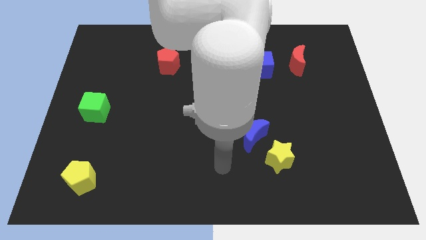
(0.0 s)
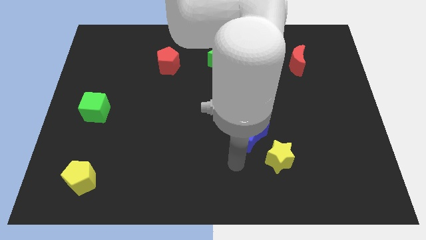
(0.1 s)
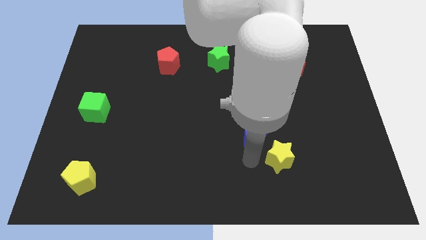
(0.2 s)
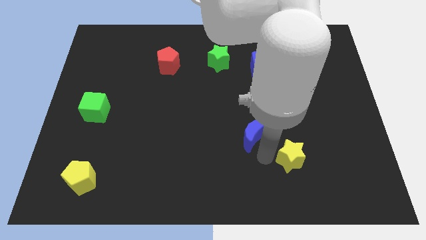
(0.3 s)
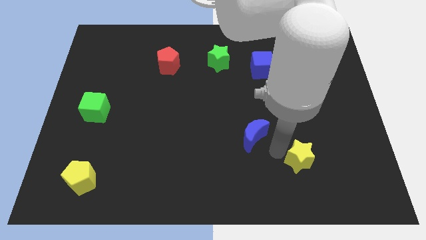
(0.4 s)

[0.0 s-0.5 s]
pull the blue moon apart from the yellow star

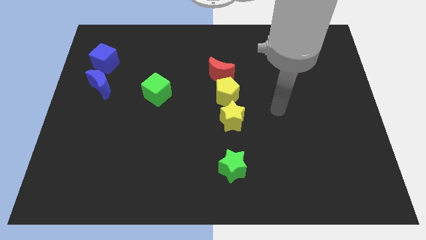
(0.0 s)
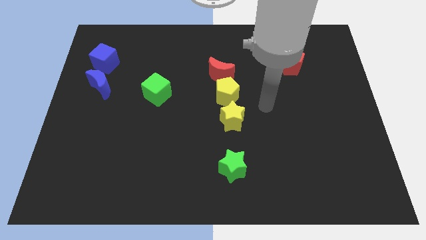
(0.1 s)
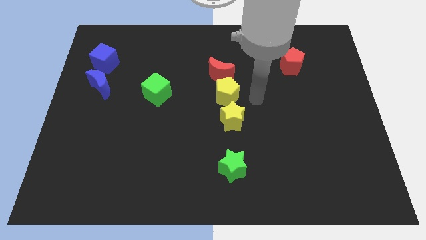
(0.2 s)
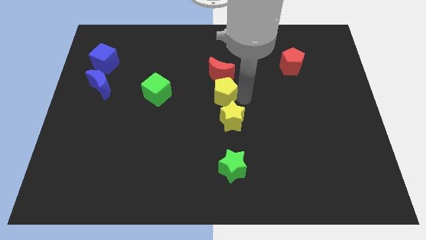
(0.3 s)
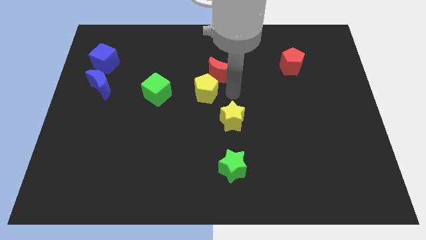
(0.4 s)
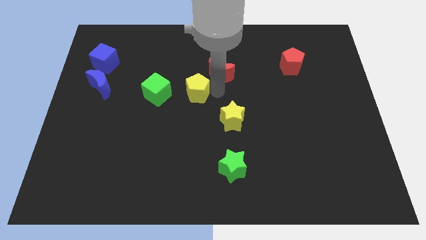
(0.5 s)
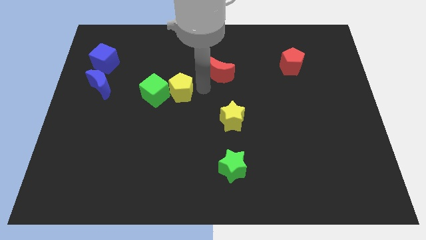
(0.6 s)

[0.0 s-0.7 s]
move the red moon away from the yellow pentagon

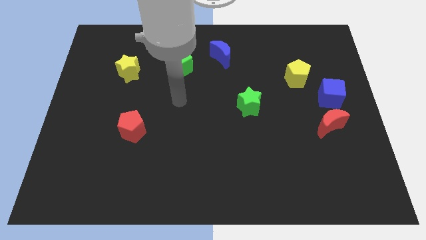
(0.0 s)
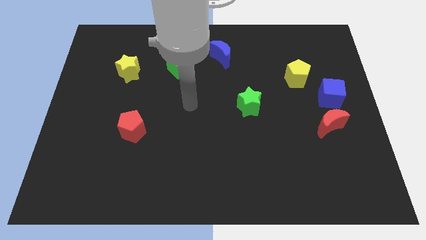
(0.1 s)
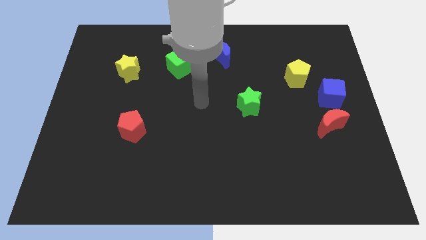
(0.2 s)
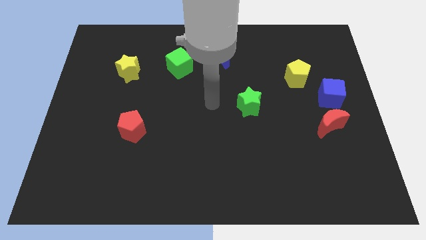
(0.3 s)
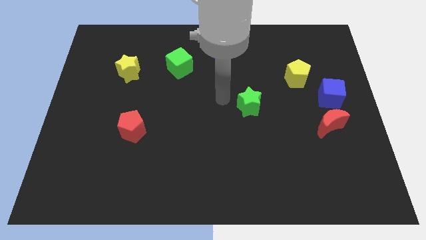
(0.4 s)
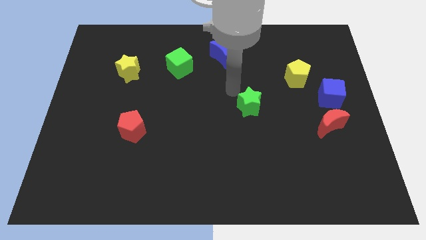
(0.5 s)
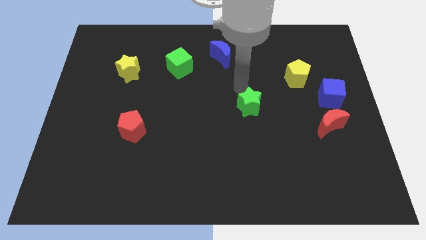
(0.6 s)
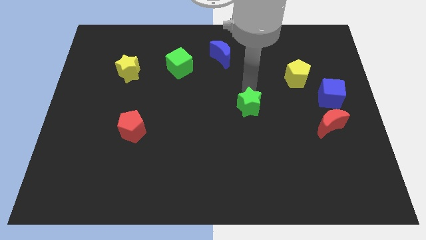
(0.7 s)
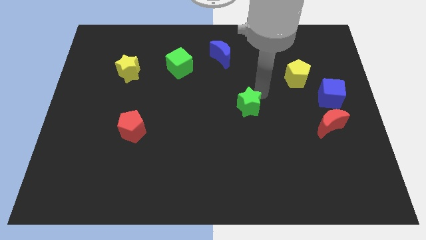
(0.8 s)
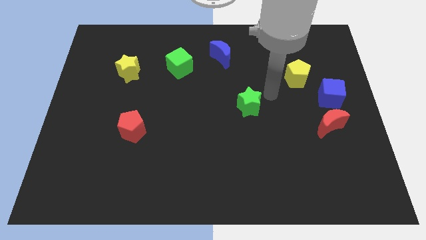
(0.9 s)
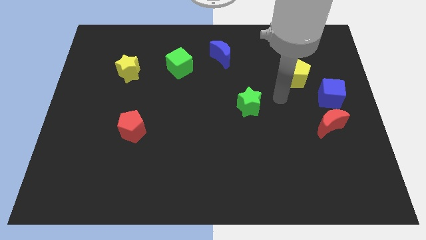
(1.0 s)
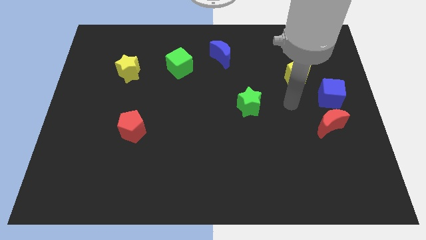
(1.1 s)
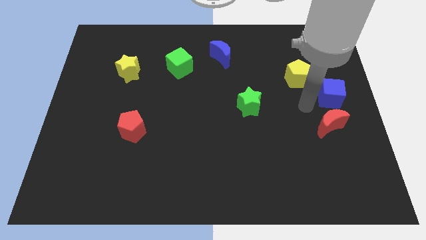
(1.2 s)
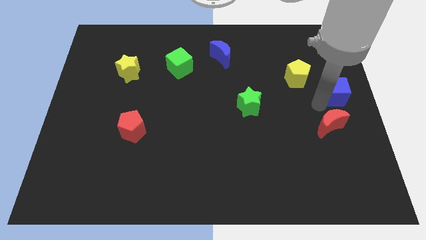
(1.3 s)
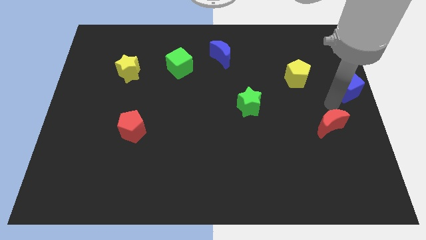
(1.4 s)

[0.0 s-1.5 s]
move the red moon away from the blue cube

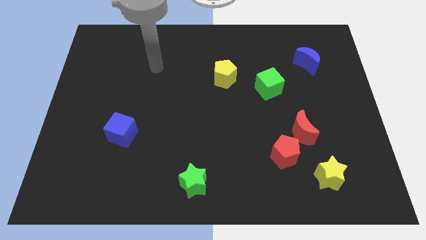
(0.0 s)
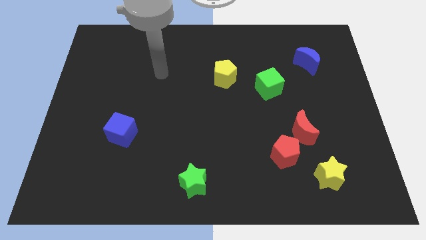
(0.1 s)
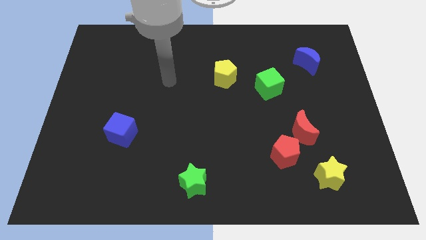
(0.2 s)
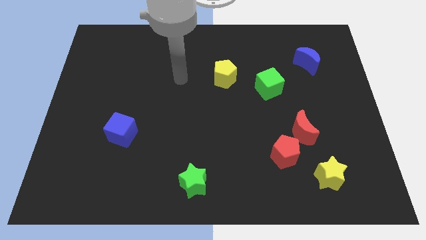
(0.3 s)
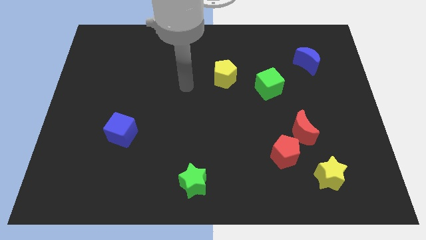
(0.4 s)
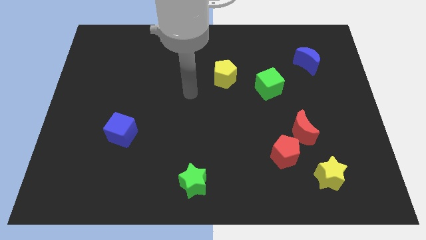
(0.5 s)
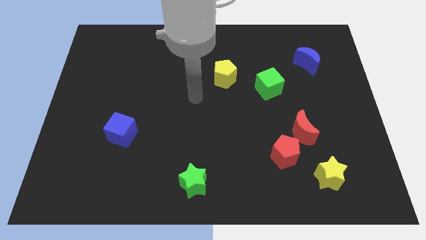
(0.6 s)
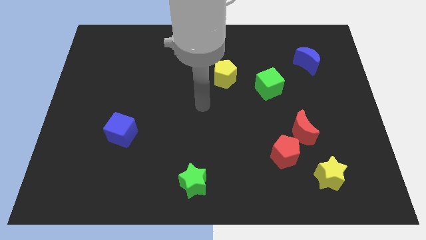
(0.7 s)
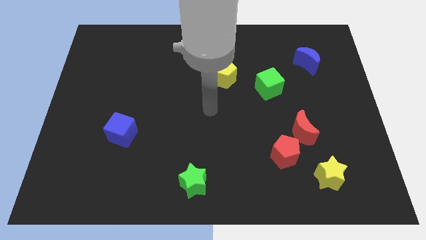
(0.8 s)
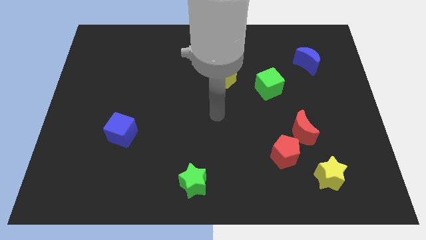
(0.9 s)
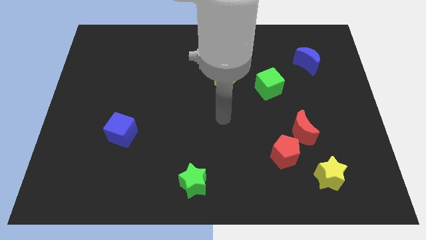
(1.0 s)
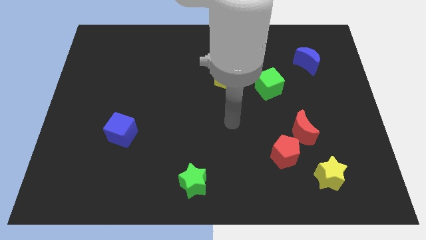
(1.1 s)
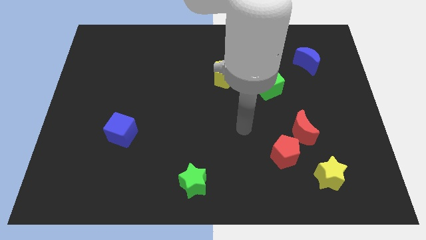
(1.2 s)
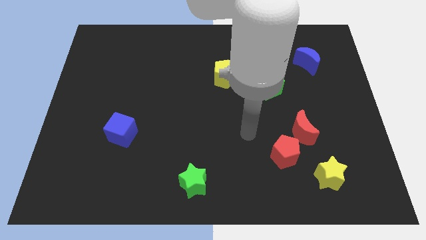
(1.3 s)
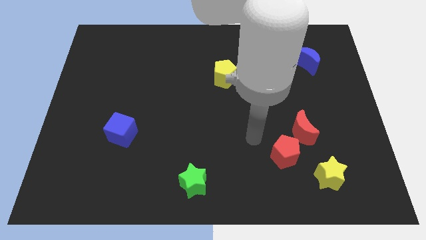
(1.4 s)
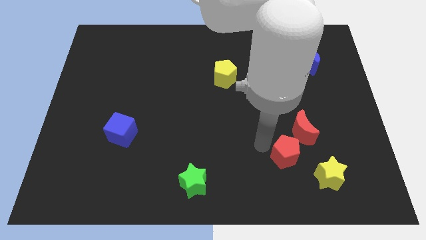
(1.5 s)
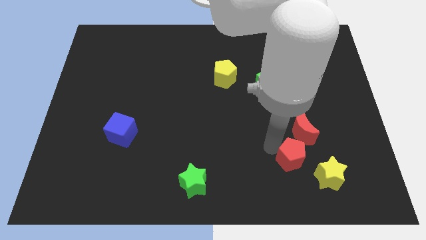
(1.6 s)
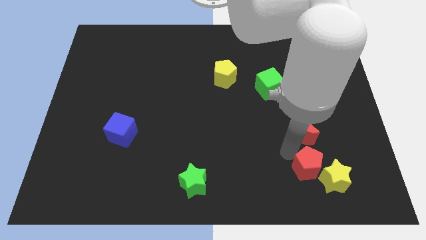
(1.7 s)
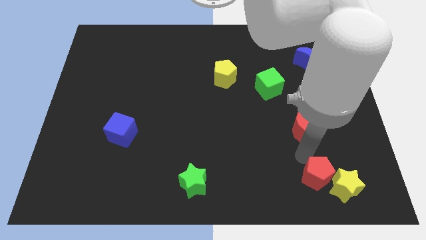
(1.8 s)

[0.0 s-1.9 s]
separate the red moon from the red pentagon

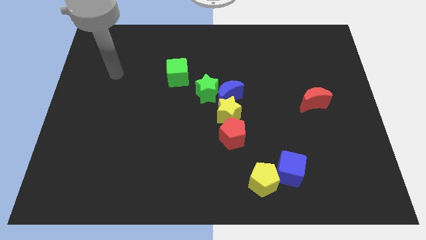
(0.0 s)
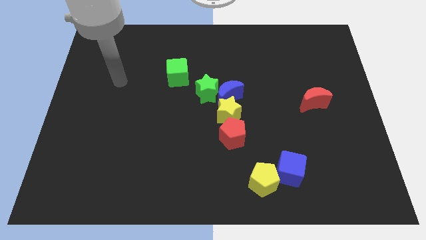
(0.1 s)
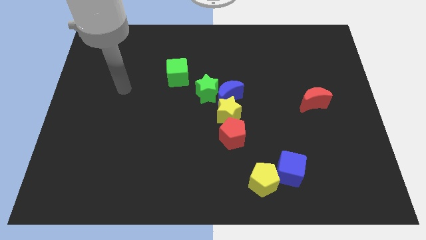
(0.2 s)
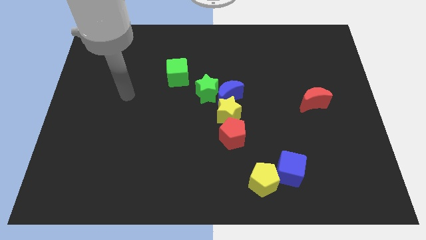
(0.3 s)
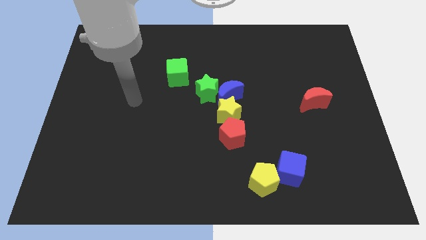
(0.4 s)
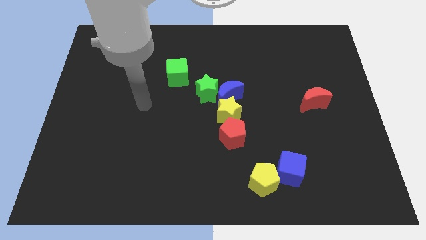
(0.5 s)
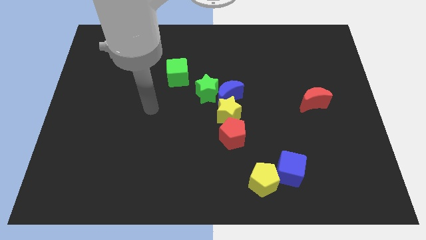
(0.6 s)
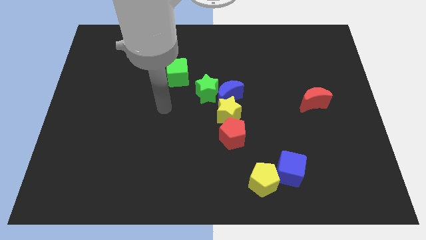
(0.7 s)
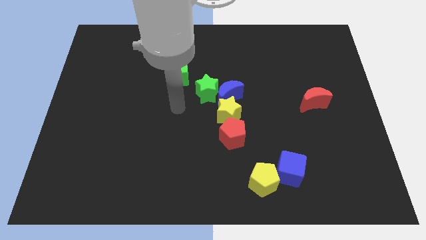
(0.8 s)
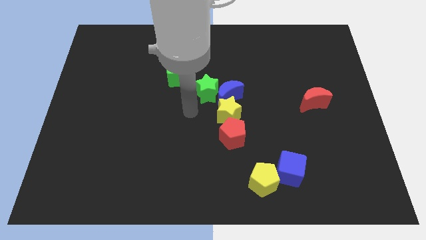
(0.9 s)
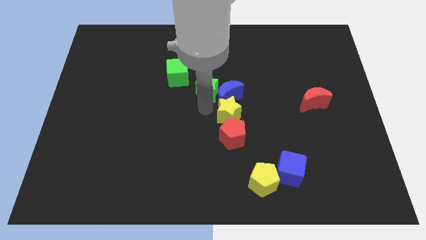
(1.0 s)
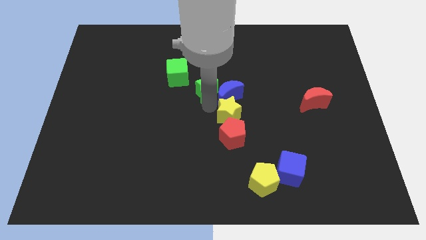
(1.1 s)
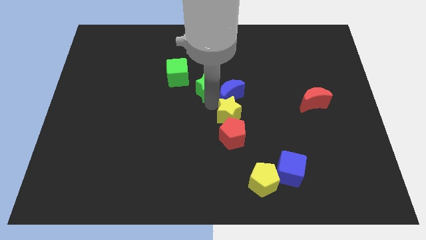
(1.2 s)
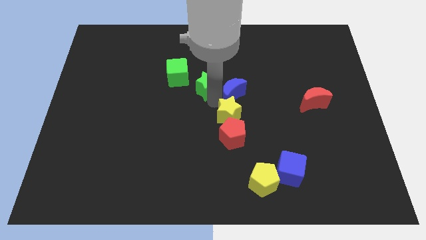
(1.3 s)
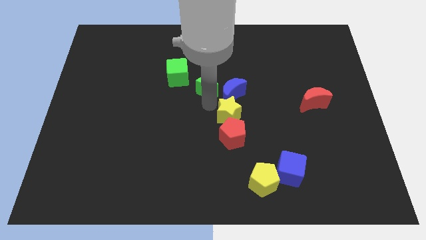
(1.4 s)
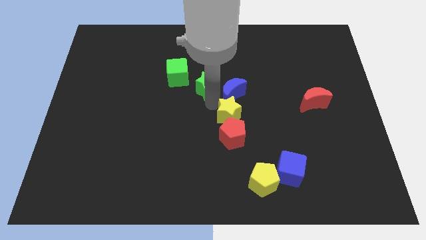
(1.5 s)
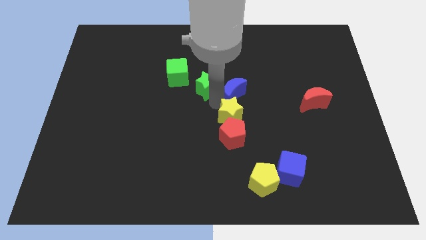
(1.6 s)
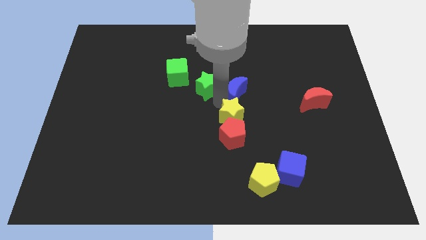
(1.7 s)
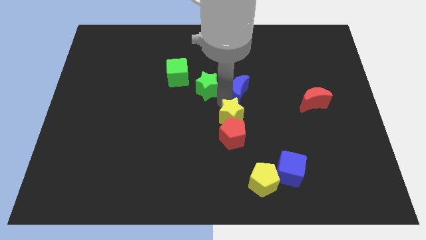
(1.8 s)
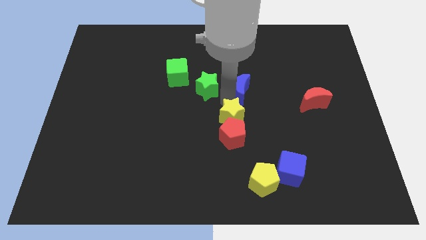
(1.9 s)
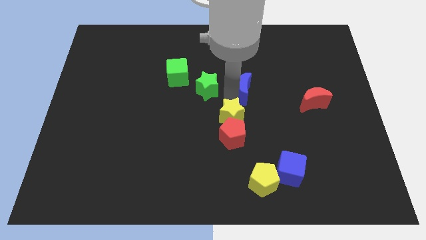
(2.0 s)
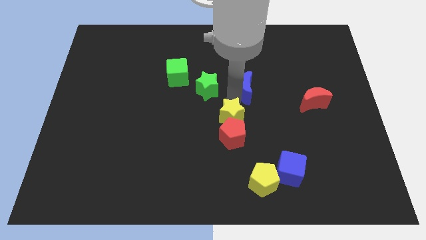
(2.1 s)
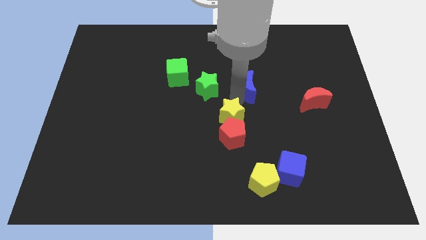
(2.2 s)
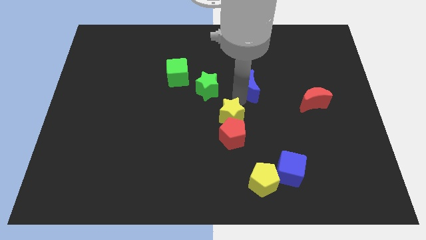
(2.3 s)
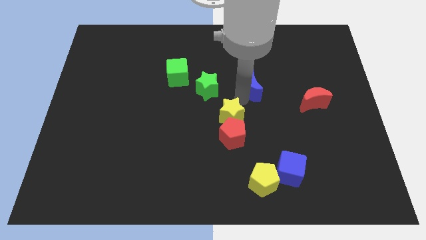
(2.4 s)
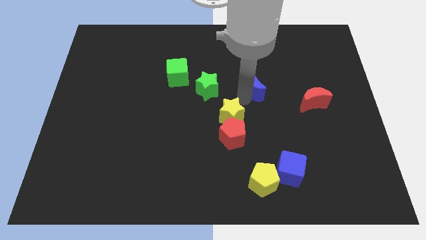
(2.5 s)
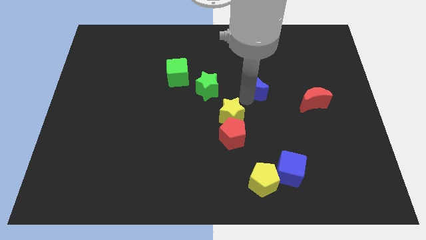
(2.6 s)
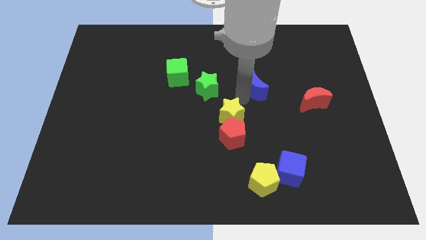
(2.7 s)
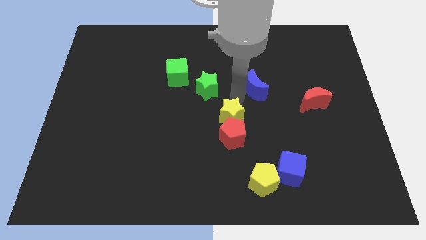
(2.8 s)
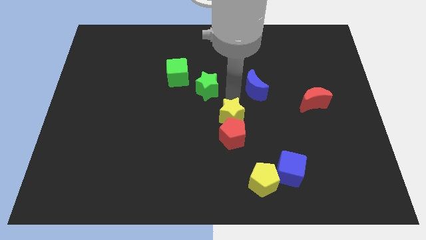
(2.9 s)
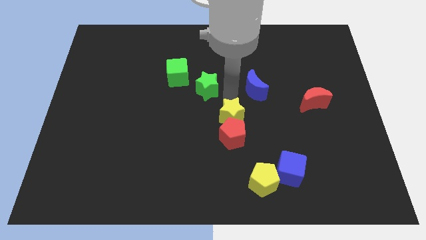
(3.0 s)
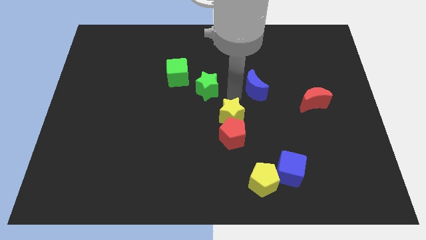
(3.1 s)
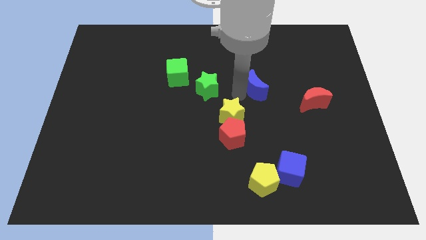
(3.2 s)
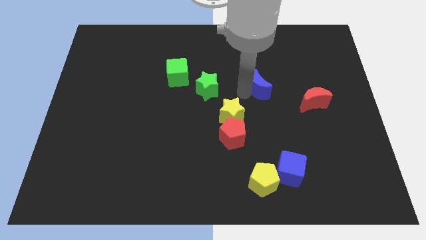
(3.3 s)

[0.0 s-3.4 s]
move the blue moon away from the yellow star and green star

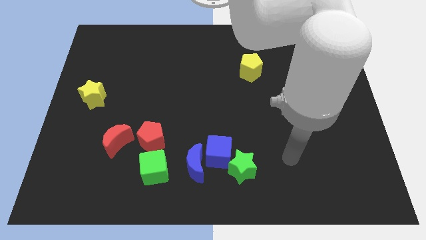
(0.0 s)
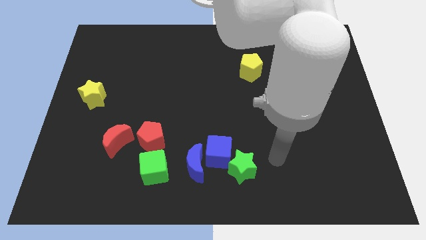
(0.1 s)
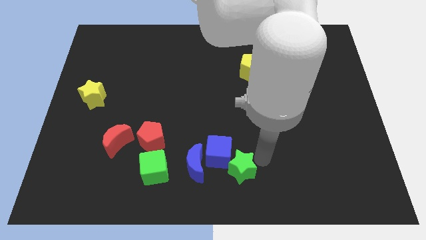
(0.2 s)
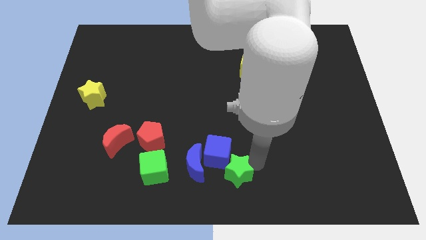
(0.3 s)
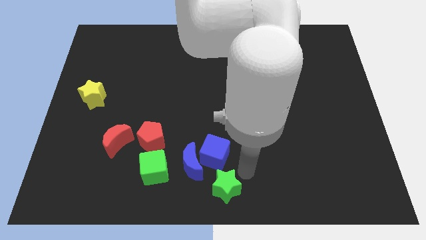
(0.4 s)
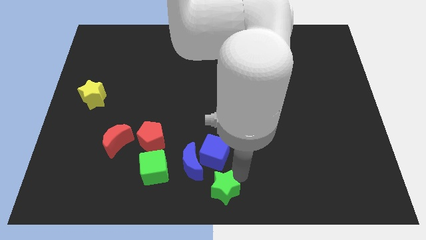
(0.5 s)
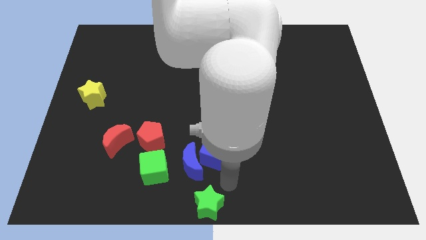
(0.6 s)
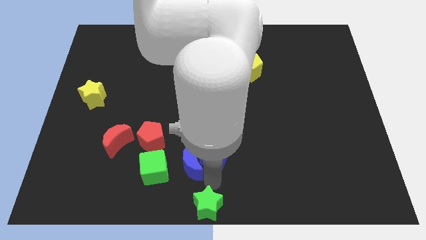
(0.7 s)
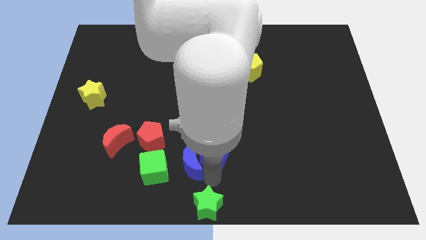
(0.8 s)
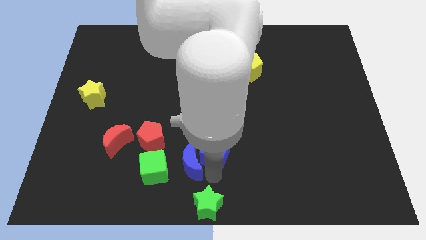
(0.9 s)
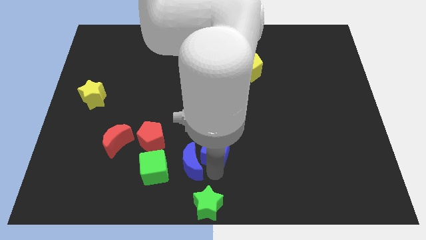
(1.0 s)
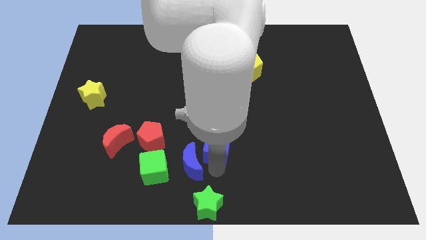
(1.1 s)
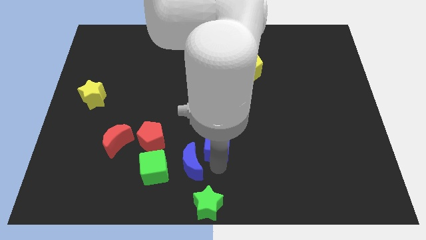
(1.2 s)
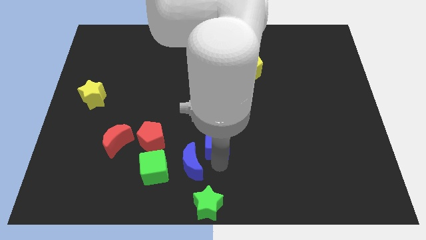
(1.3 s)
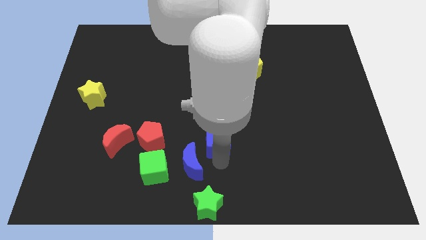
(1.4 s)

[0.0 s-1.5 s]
pull the blue cube apart from the blue moon and green star
